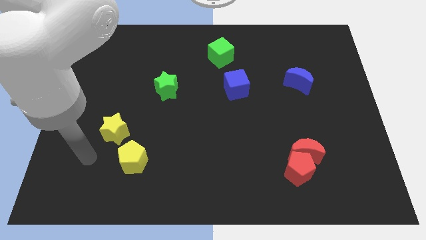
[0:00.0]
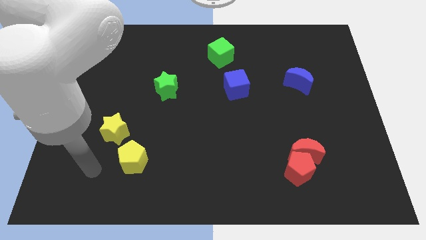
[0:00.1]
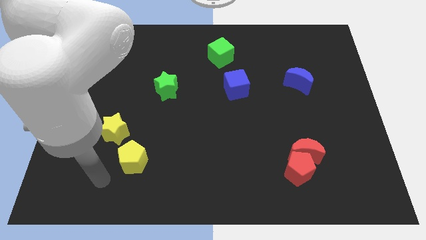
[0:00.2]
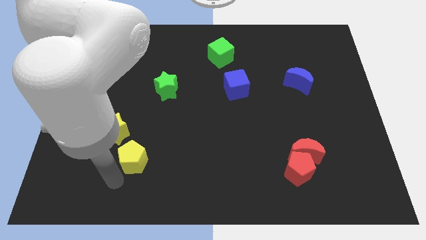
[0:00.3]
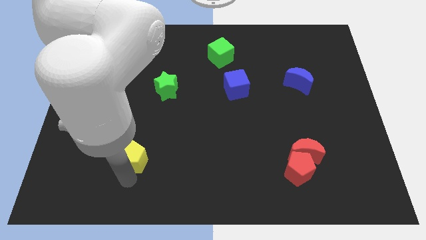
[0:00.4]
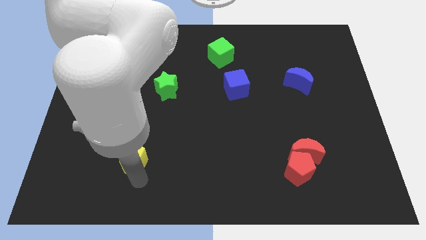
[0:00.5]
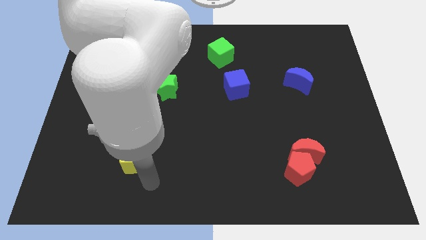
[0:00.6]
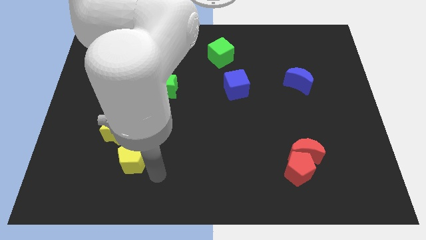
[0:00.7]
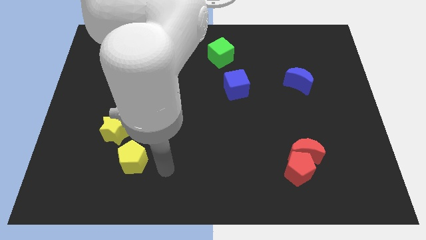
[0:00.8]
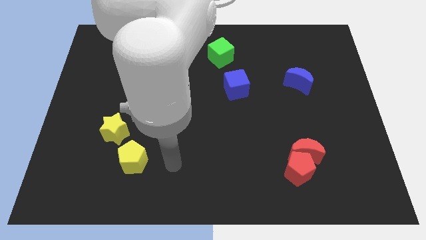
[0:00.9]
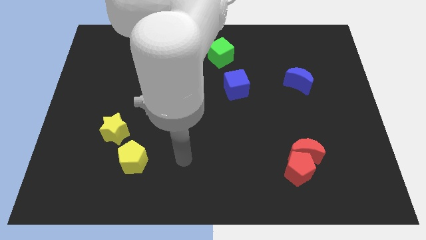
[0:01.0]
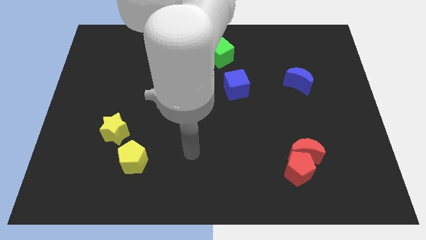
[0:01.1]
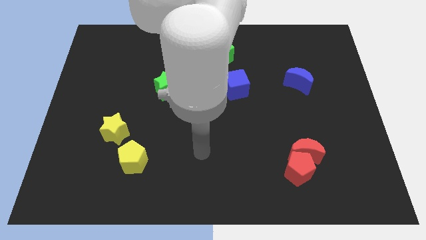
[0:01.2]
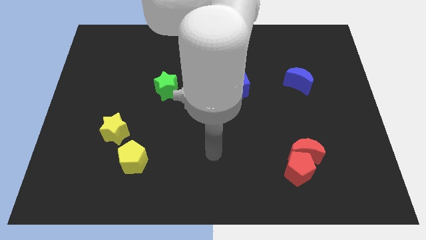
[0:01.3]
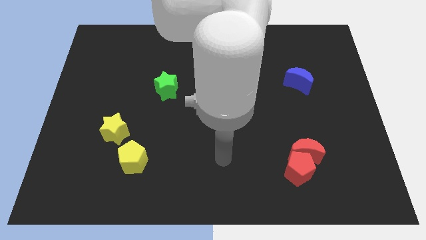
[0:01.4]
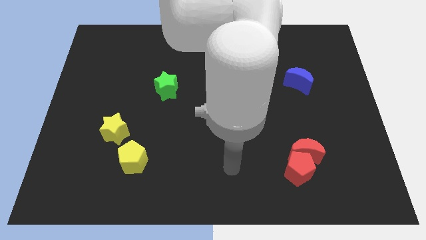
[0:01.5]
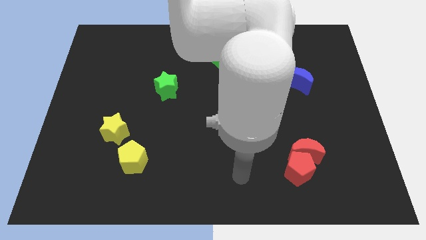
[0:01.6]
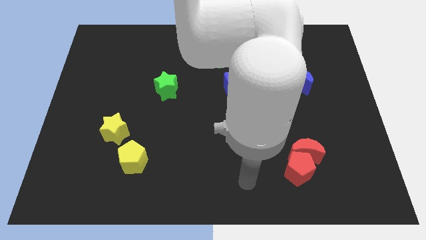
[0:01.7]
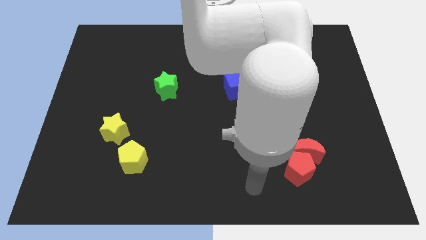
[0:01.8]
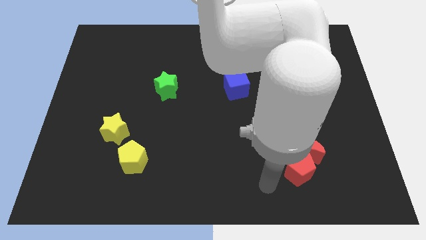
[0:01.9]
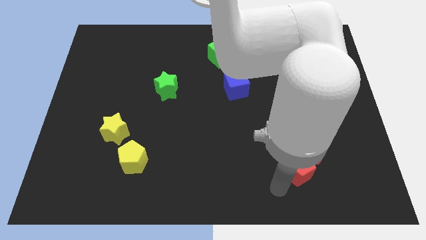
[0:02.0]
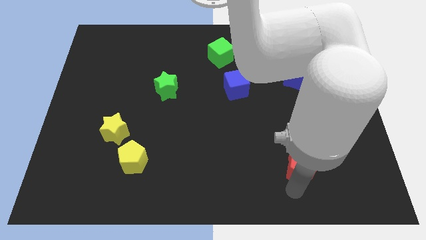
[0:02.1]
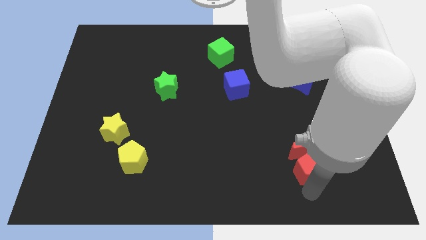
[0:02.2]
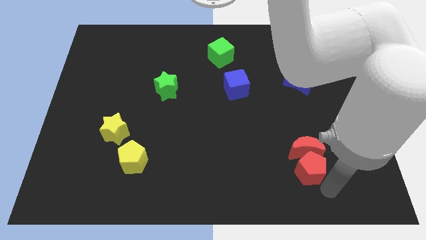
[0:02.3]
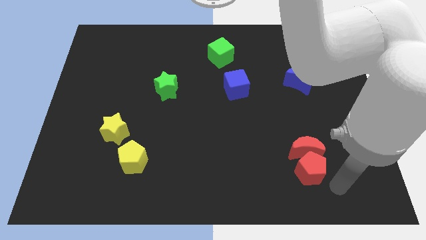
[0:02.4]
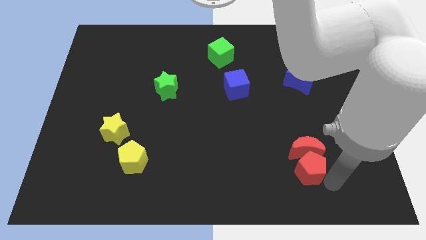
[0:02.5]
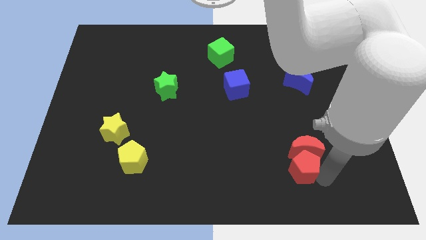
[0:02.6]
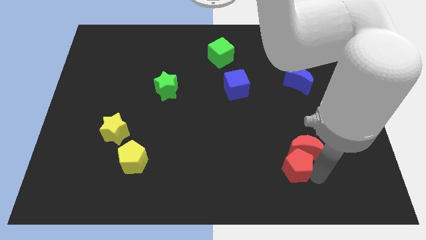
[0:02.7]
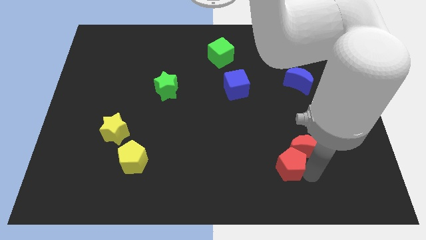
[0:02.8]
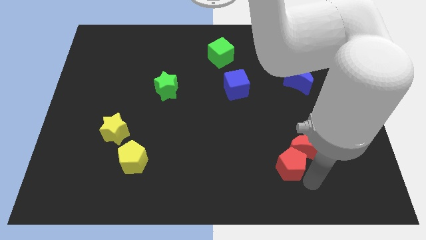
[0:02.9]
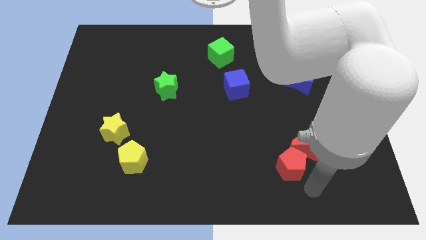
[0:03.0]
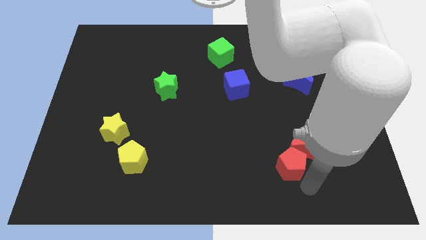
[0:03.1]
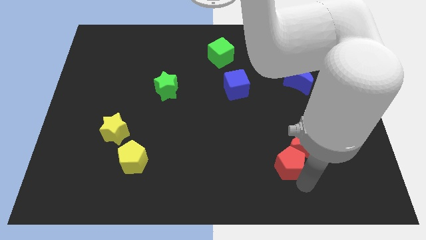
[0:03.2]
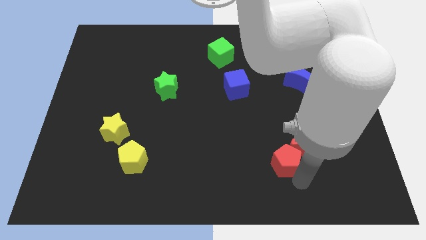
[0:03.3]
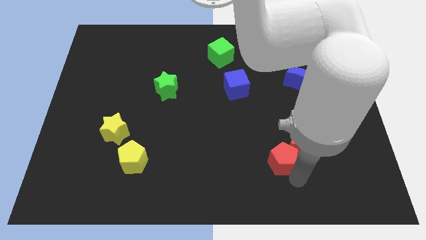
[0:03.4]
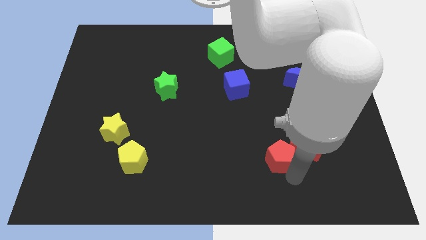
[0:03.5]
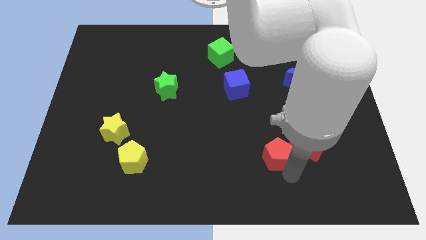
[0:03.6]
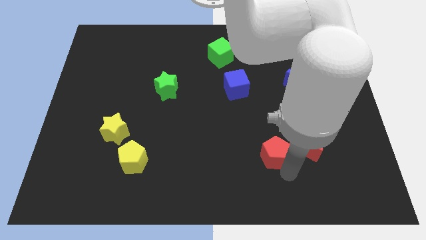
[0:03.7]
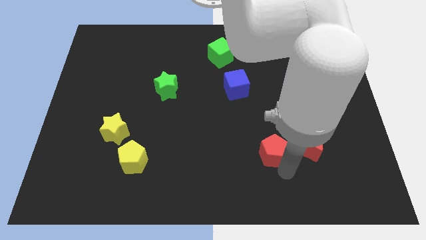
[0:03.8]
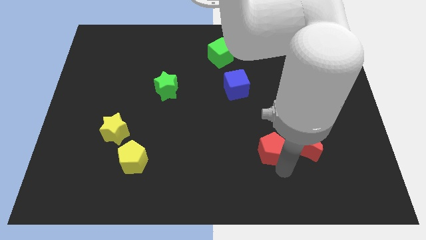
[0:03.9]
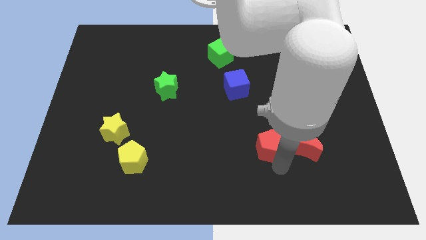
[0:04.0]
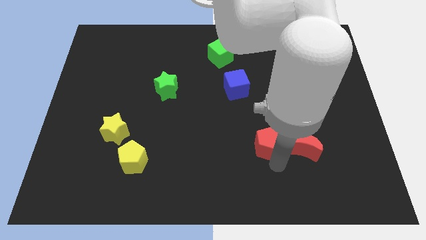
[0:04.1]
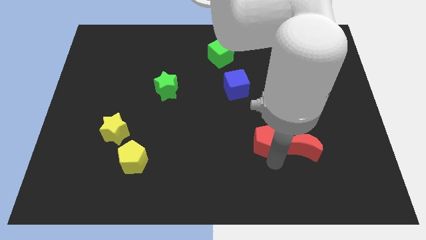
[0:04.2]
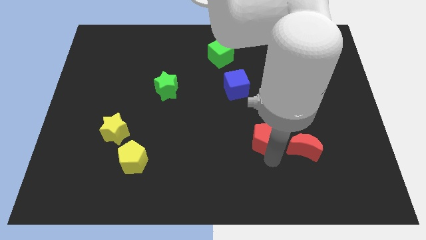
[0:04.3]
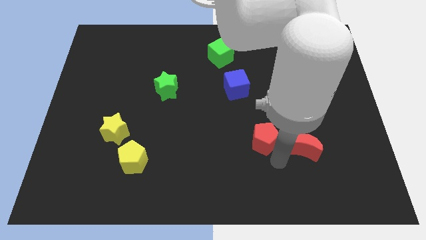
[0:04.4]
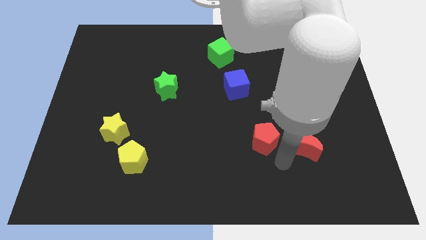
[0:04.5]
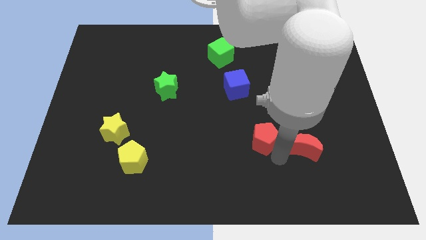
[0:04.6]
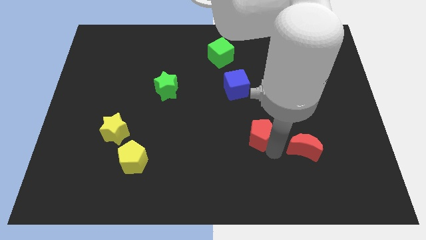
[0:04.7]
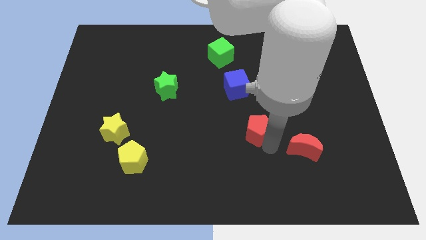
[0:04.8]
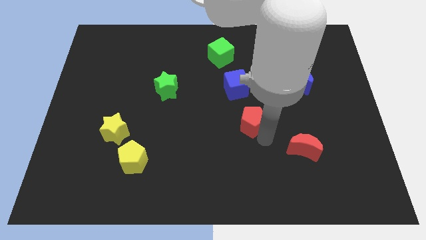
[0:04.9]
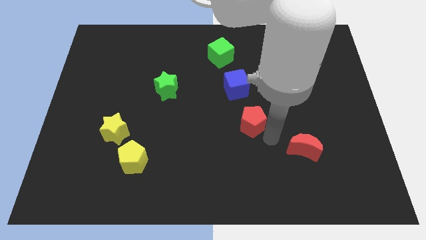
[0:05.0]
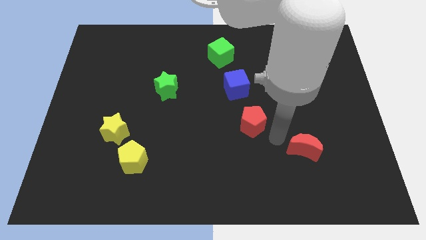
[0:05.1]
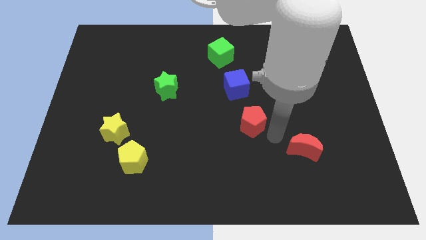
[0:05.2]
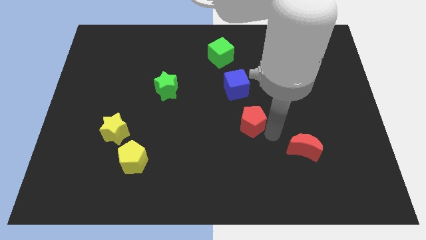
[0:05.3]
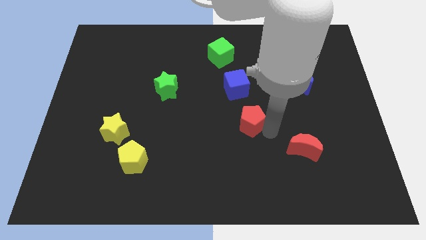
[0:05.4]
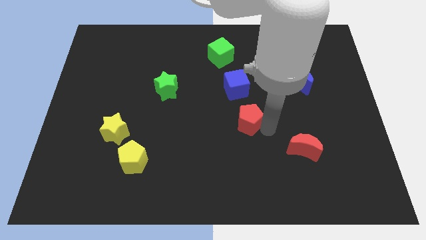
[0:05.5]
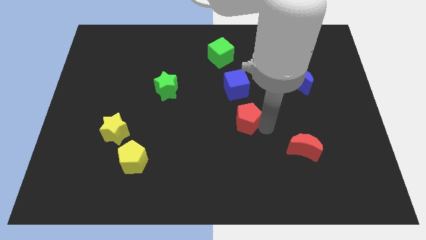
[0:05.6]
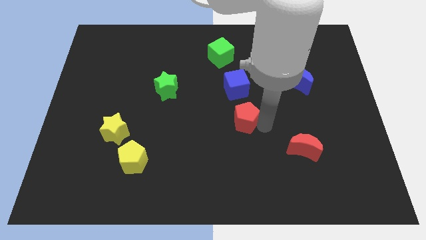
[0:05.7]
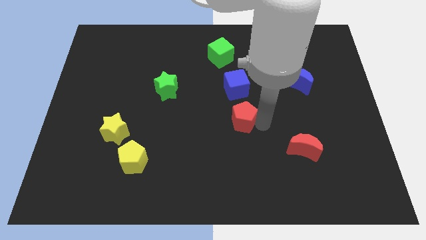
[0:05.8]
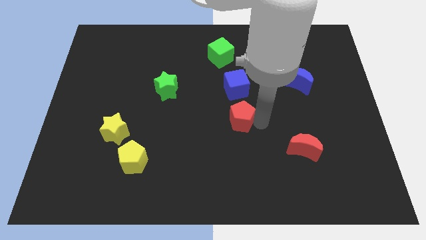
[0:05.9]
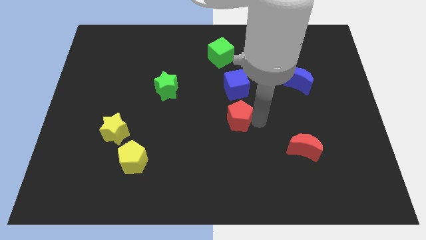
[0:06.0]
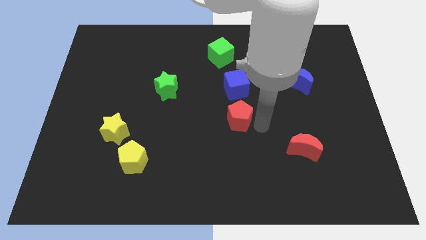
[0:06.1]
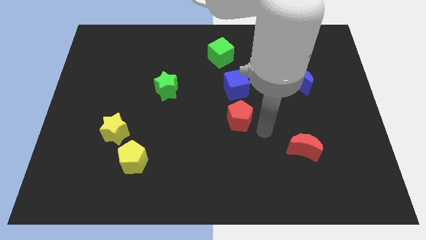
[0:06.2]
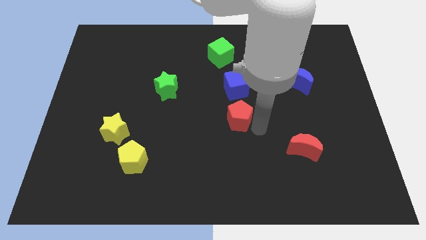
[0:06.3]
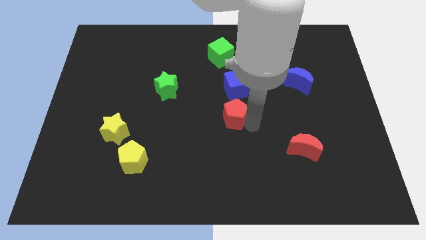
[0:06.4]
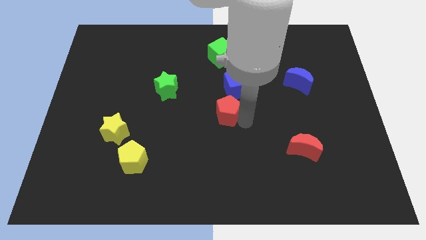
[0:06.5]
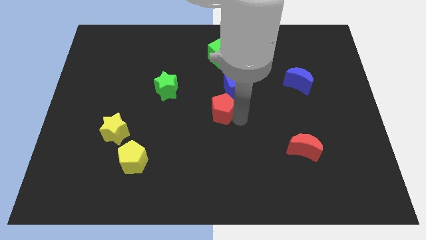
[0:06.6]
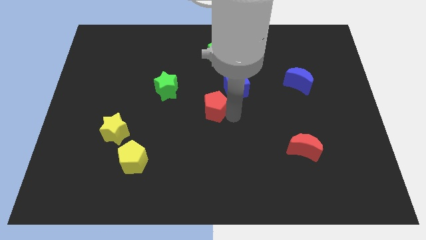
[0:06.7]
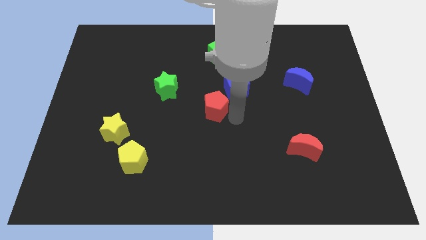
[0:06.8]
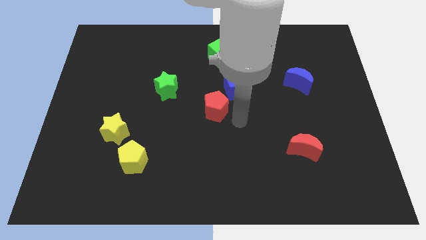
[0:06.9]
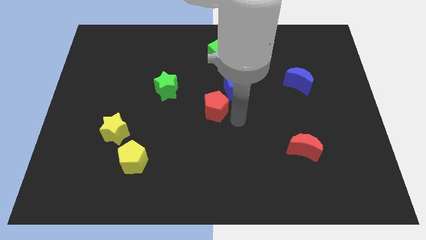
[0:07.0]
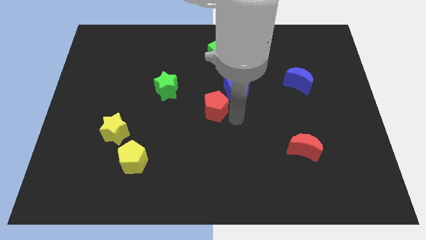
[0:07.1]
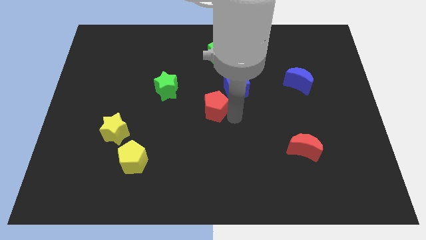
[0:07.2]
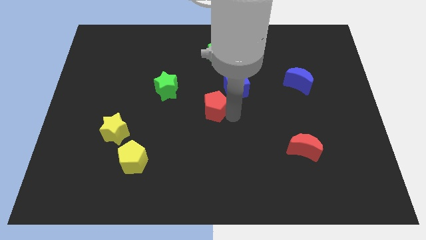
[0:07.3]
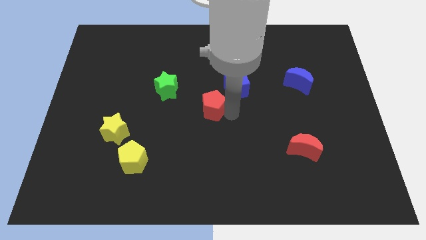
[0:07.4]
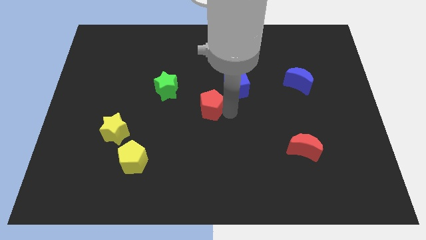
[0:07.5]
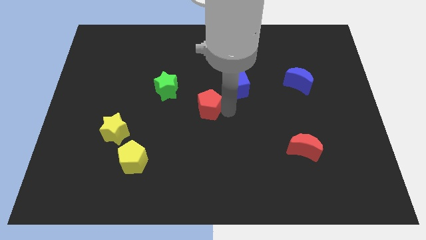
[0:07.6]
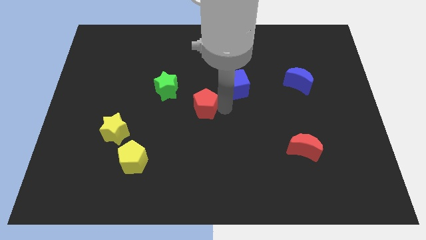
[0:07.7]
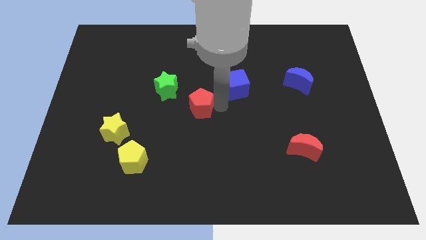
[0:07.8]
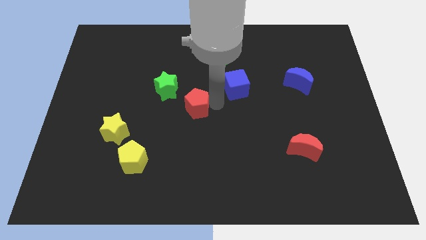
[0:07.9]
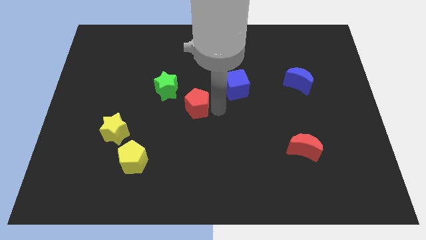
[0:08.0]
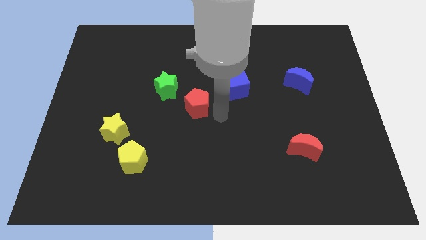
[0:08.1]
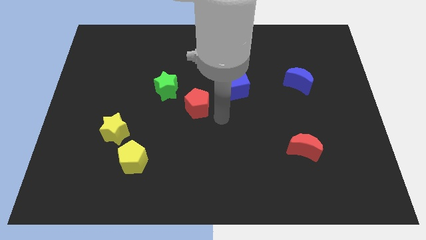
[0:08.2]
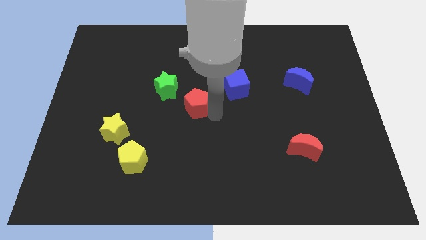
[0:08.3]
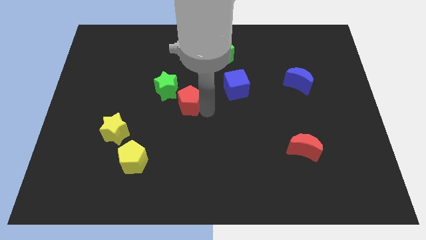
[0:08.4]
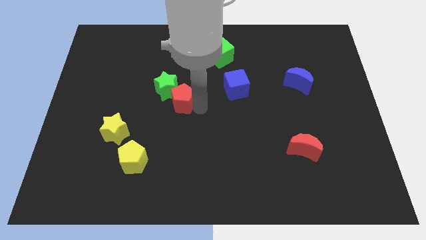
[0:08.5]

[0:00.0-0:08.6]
put the red pentagon towards the green star
